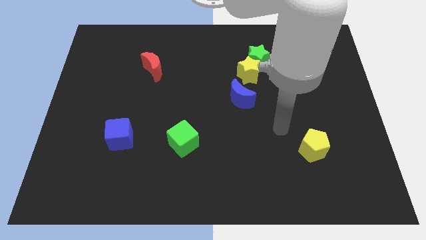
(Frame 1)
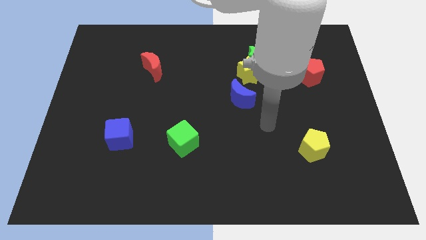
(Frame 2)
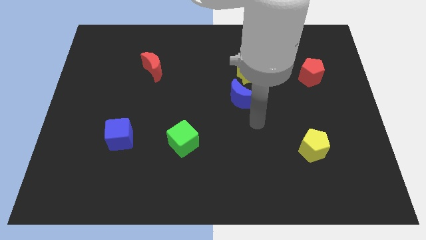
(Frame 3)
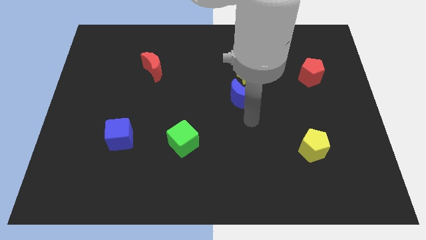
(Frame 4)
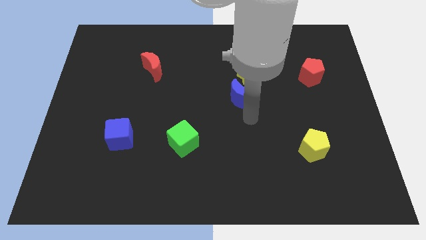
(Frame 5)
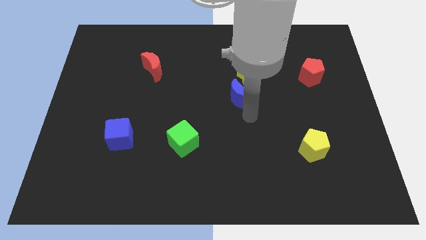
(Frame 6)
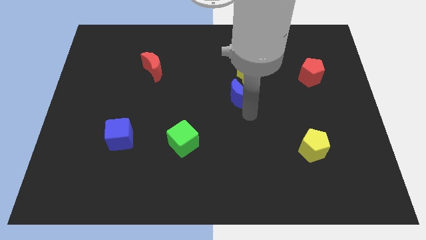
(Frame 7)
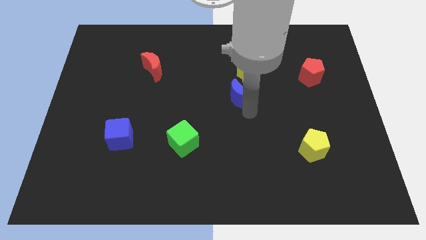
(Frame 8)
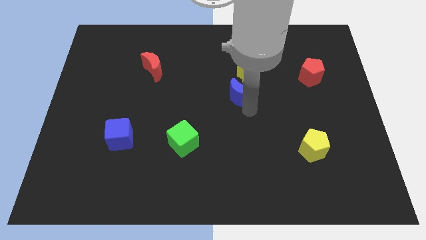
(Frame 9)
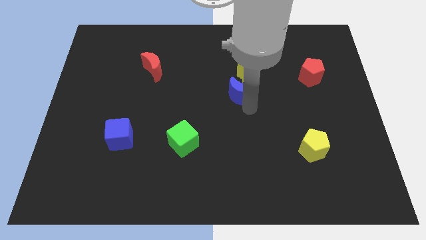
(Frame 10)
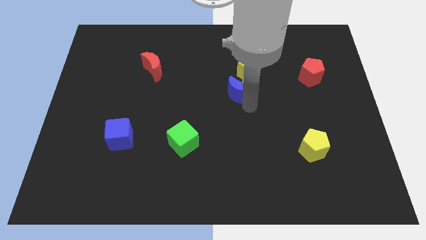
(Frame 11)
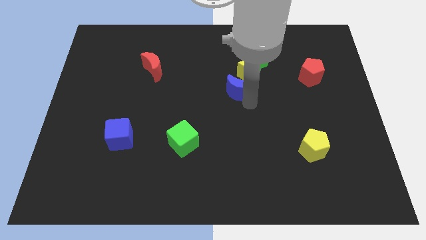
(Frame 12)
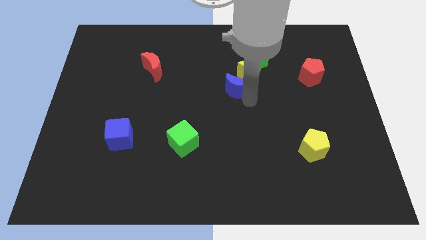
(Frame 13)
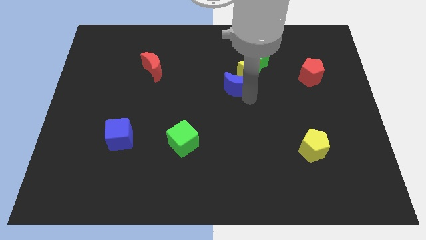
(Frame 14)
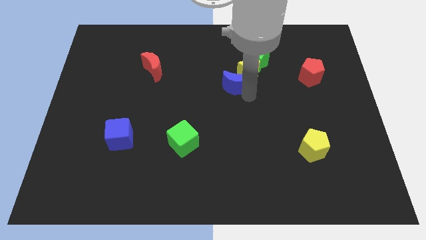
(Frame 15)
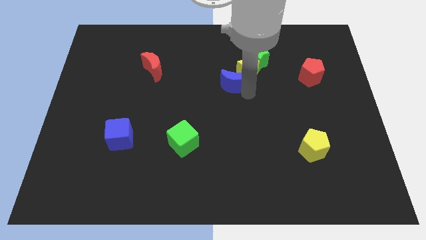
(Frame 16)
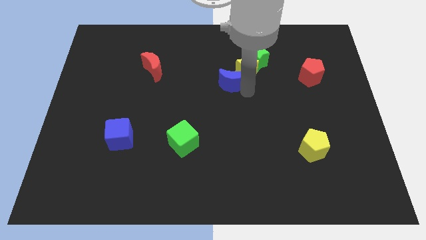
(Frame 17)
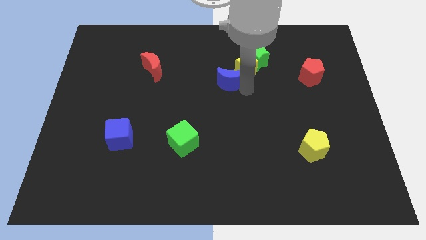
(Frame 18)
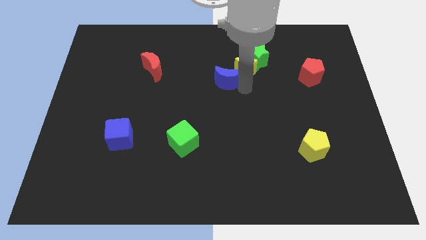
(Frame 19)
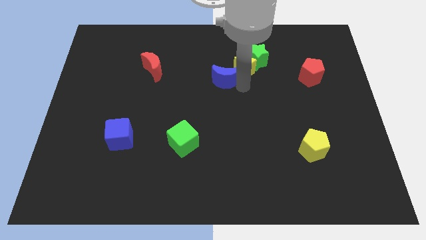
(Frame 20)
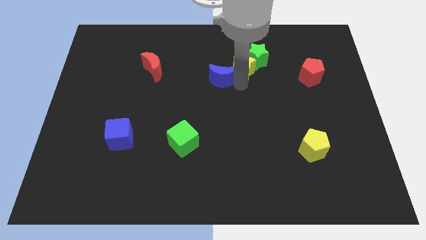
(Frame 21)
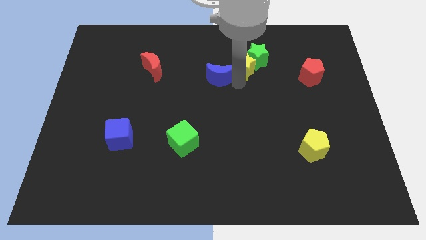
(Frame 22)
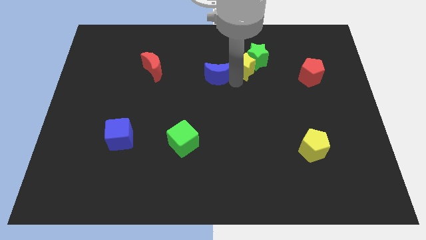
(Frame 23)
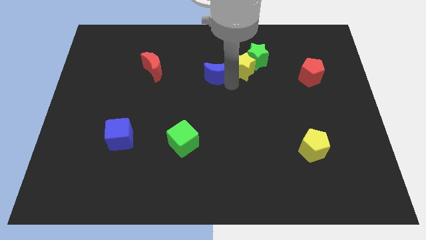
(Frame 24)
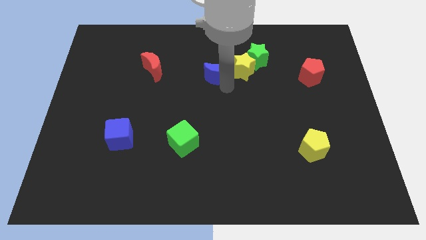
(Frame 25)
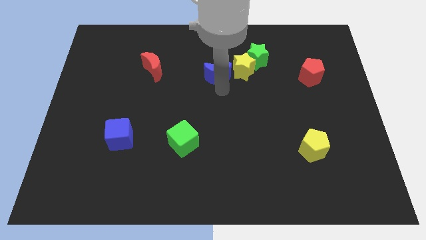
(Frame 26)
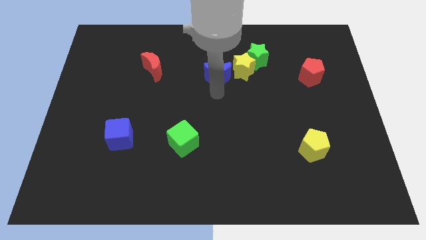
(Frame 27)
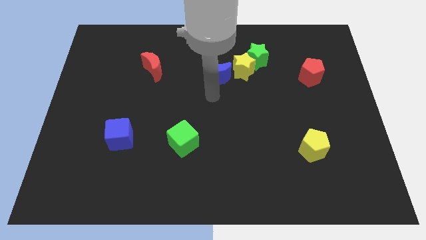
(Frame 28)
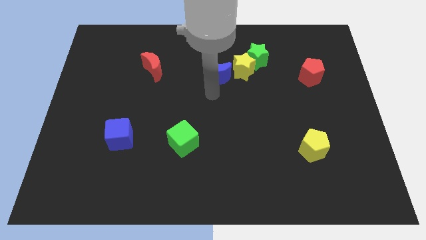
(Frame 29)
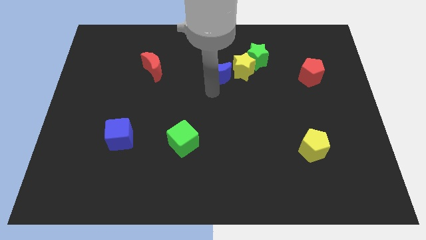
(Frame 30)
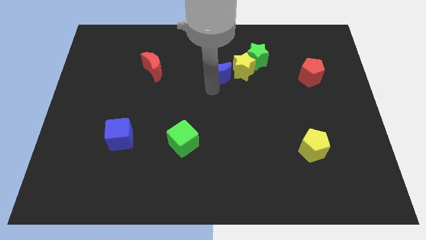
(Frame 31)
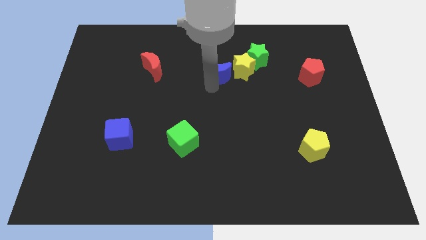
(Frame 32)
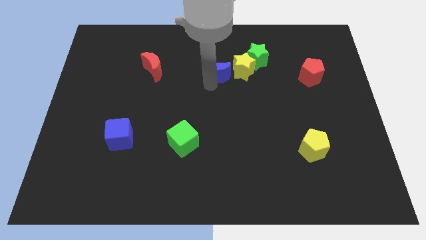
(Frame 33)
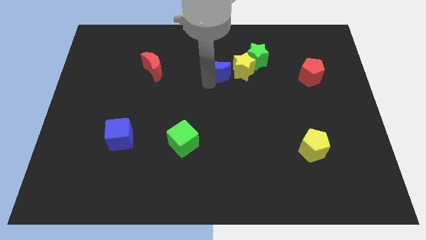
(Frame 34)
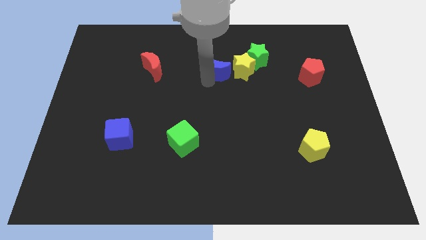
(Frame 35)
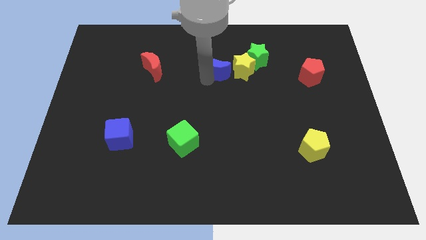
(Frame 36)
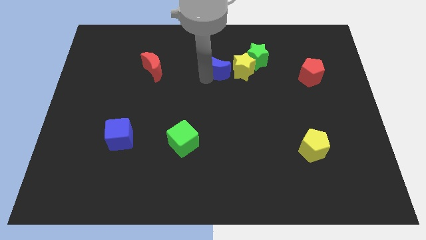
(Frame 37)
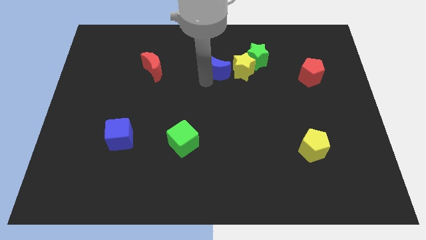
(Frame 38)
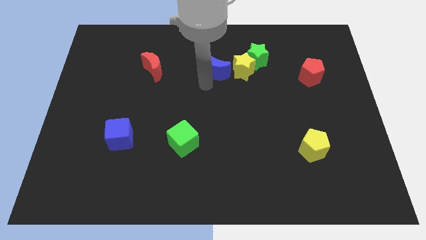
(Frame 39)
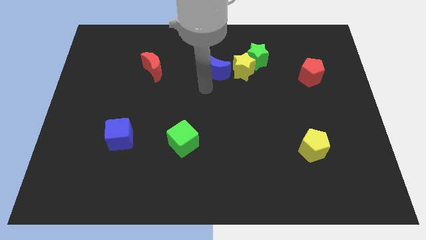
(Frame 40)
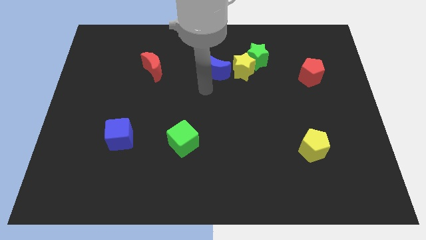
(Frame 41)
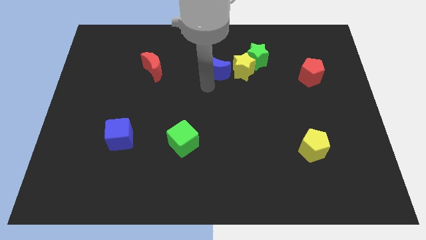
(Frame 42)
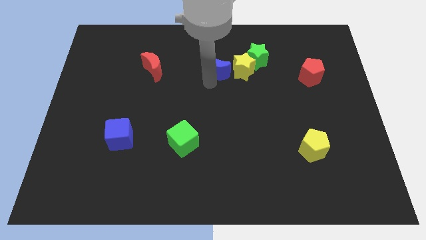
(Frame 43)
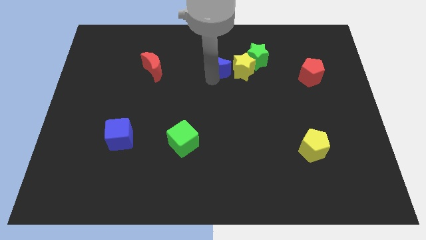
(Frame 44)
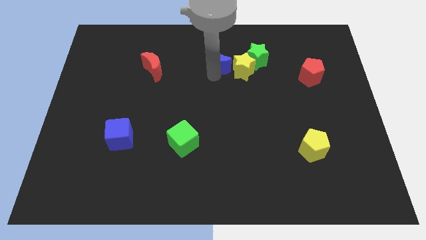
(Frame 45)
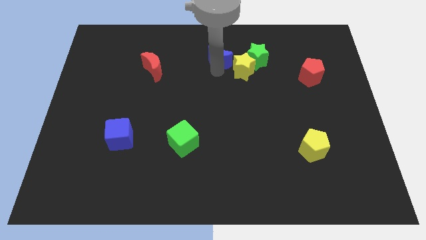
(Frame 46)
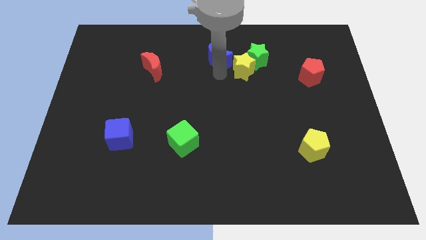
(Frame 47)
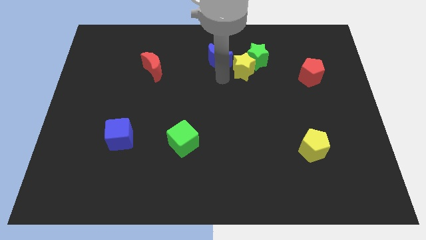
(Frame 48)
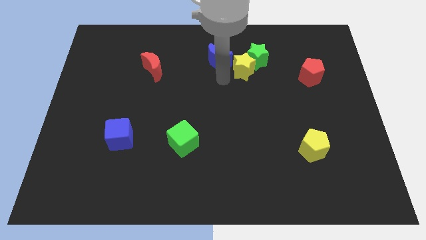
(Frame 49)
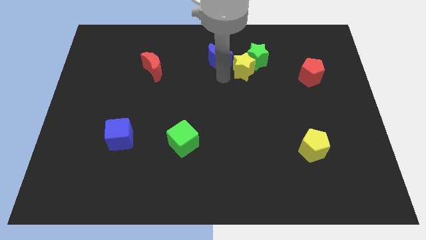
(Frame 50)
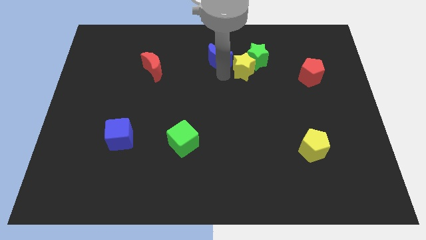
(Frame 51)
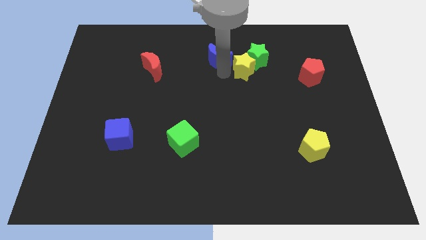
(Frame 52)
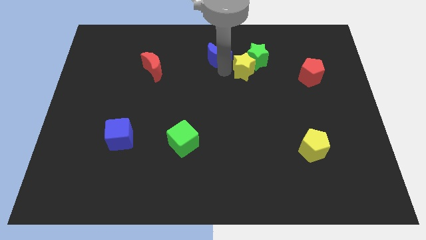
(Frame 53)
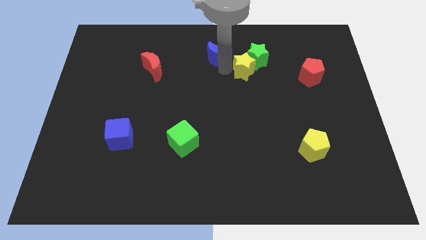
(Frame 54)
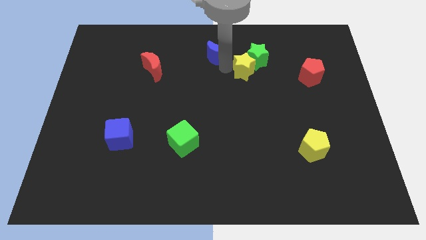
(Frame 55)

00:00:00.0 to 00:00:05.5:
put the blue moon to the top side
